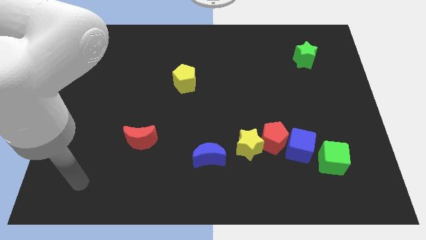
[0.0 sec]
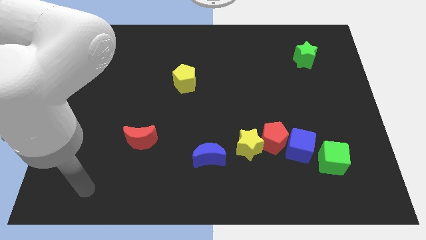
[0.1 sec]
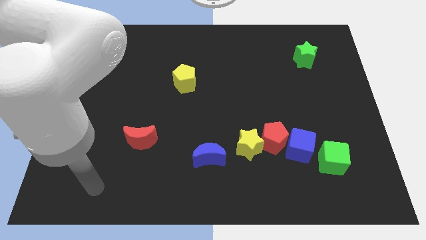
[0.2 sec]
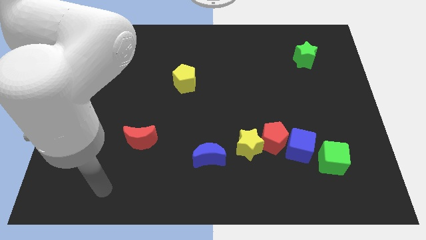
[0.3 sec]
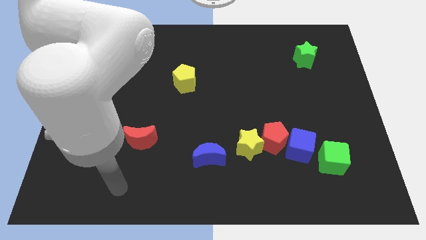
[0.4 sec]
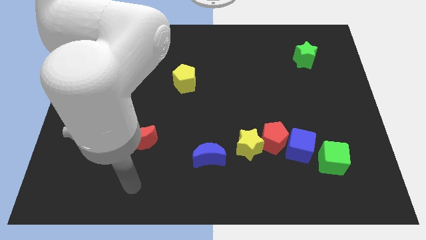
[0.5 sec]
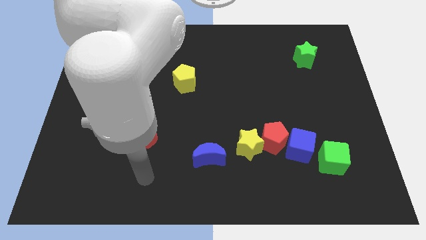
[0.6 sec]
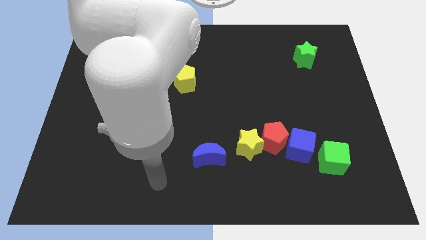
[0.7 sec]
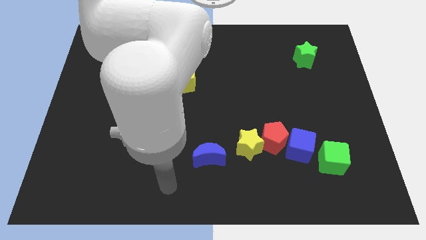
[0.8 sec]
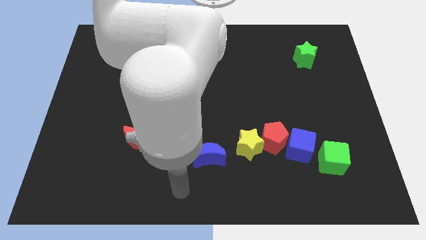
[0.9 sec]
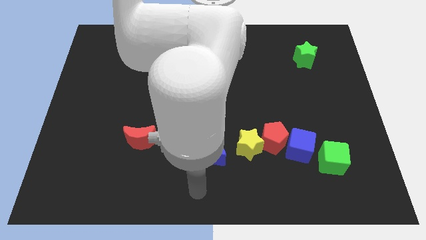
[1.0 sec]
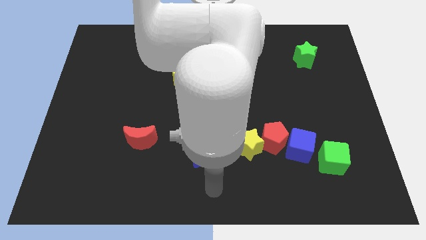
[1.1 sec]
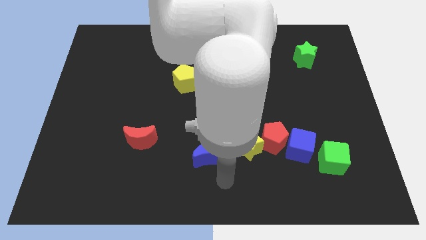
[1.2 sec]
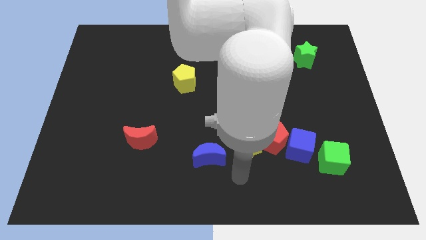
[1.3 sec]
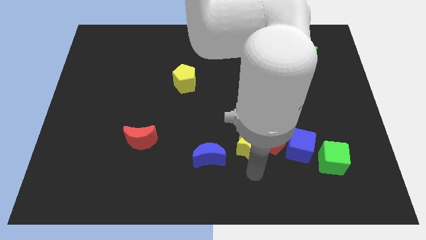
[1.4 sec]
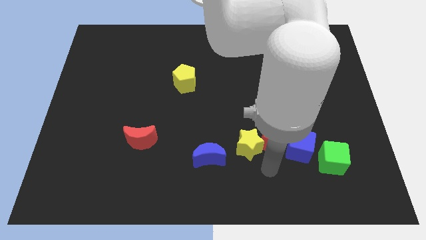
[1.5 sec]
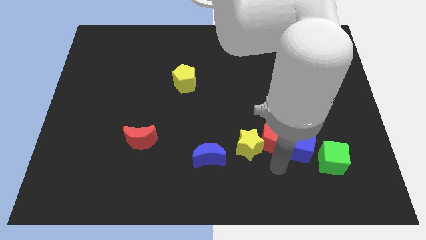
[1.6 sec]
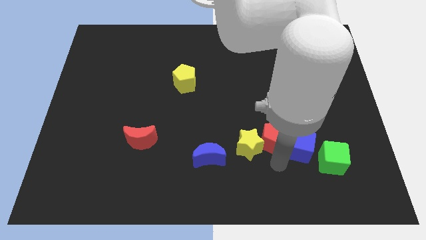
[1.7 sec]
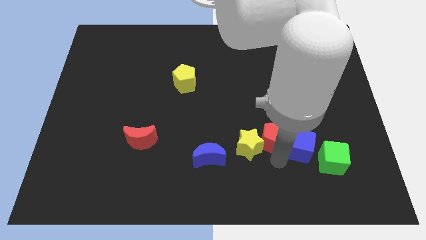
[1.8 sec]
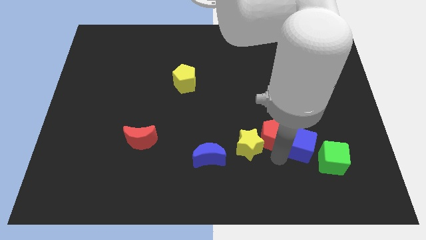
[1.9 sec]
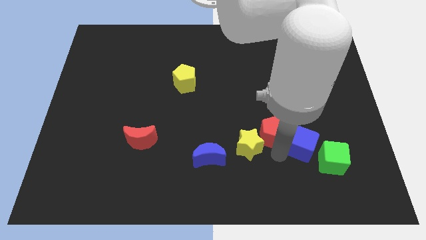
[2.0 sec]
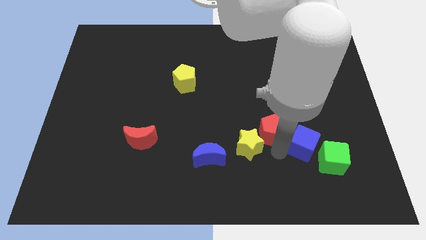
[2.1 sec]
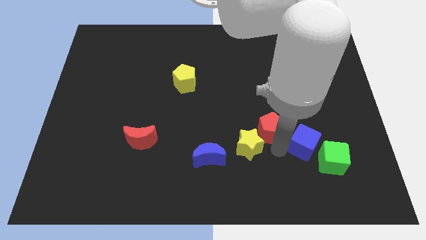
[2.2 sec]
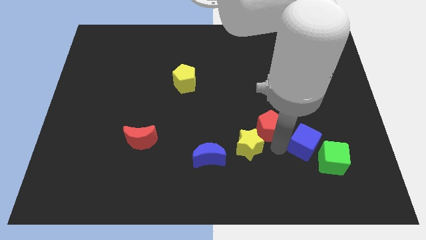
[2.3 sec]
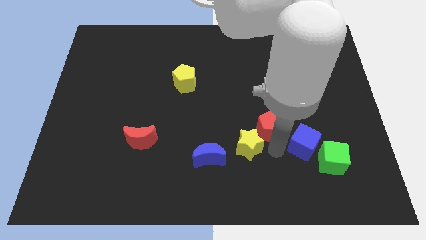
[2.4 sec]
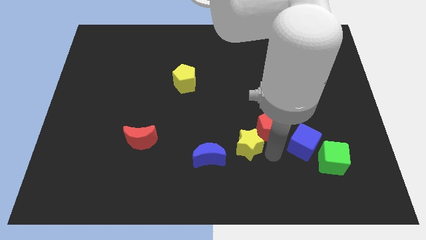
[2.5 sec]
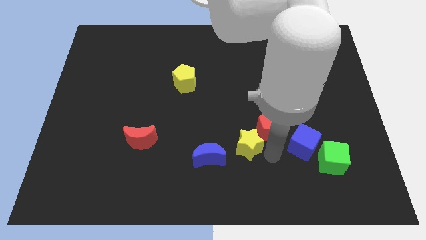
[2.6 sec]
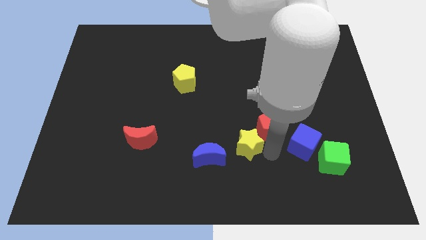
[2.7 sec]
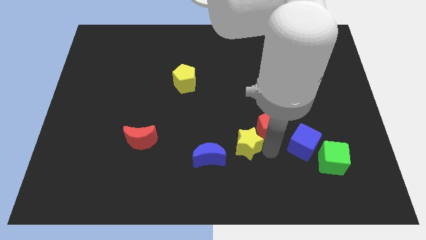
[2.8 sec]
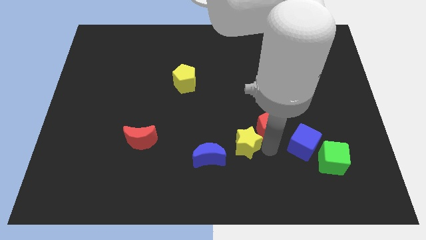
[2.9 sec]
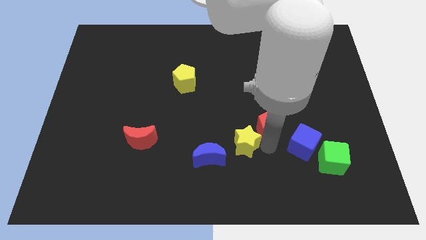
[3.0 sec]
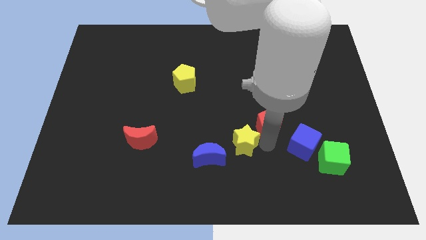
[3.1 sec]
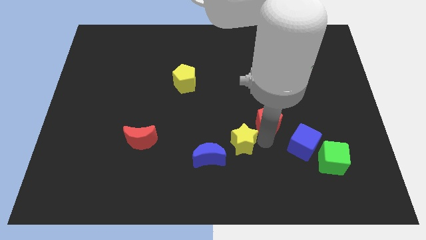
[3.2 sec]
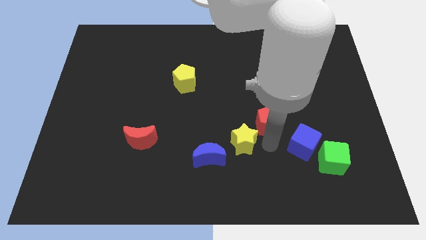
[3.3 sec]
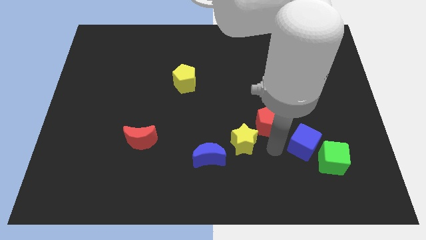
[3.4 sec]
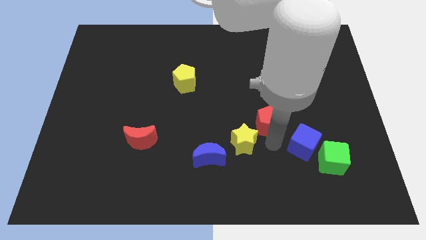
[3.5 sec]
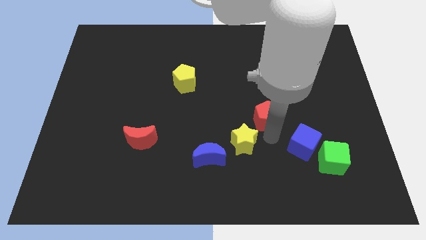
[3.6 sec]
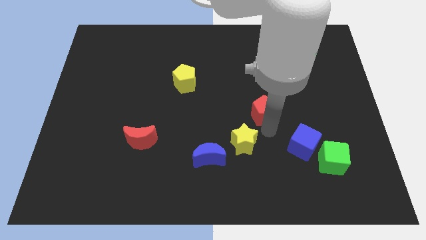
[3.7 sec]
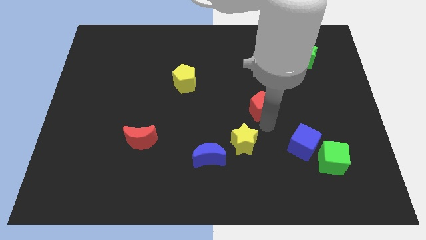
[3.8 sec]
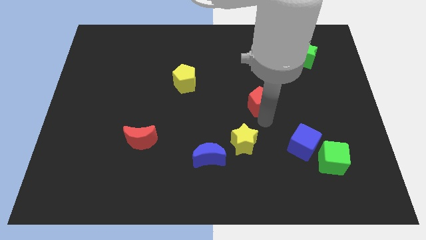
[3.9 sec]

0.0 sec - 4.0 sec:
pull the red pentagon apart from the yellow star and blue cube

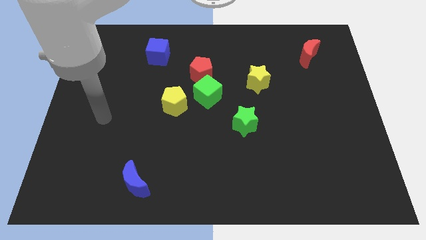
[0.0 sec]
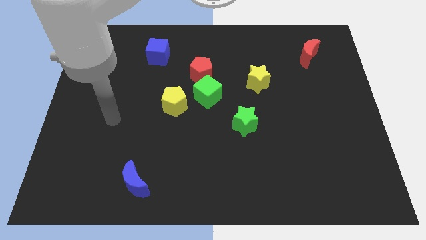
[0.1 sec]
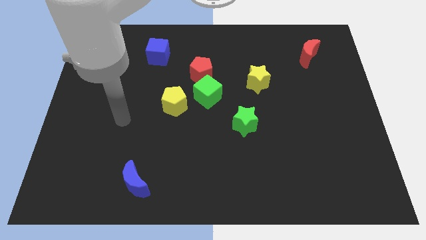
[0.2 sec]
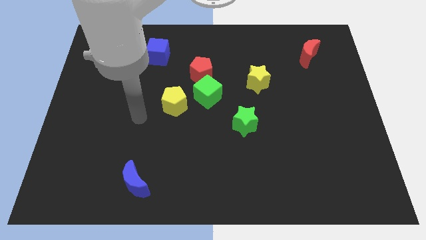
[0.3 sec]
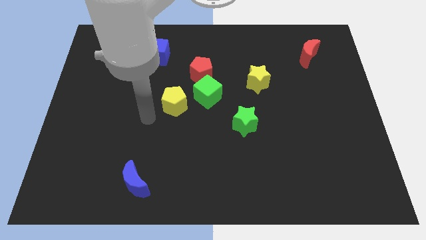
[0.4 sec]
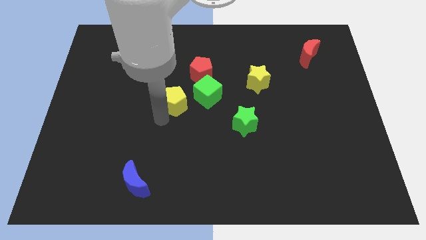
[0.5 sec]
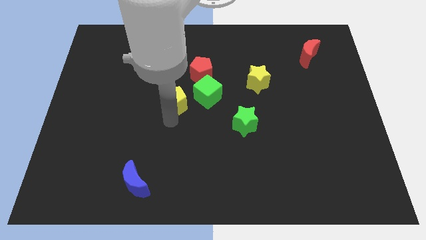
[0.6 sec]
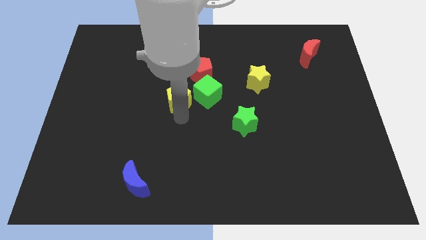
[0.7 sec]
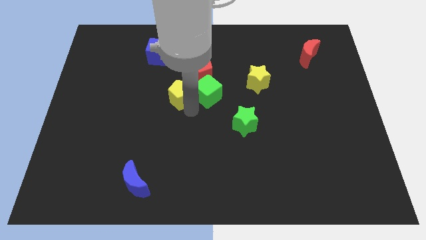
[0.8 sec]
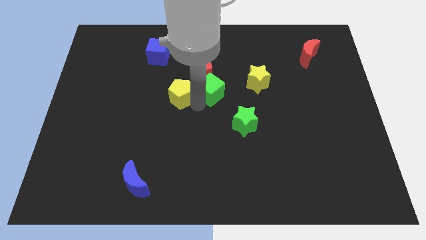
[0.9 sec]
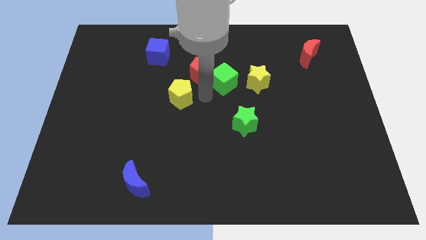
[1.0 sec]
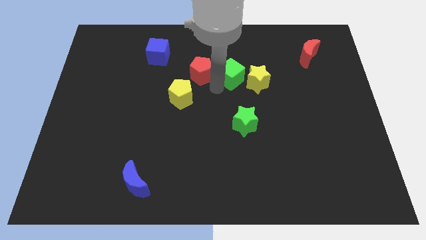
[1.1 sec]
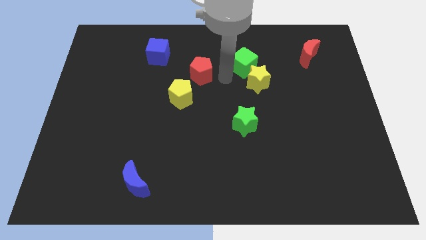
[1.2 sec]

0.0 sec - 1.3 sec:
pull the red pentagon apart from the green cube

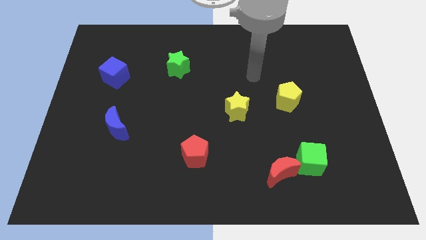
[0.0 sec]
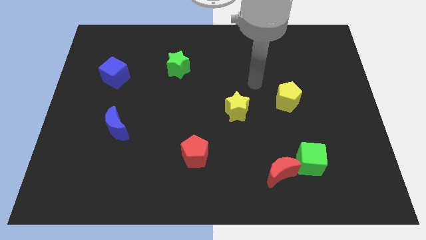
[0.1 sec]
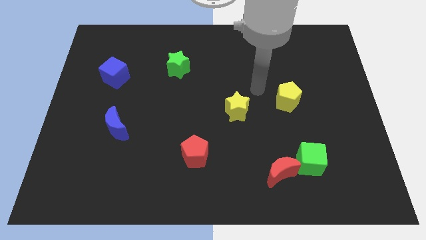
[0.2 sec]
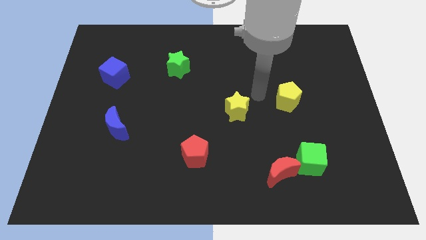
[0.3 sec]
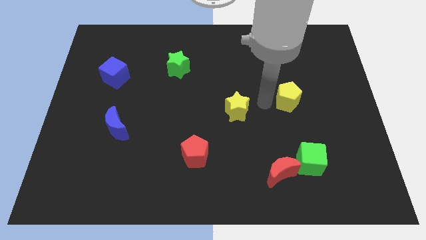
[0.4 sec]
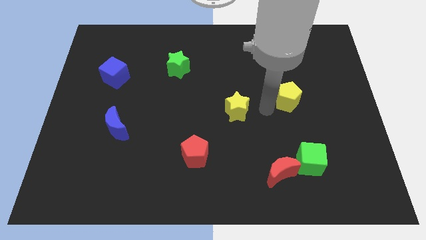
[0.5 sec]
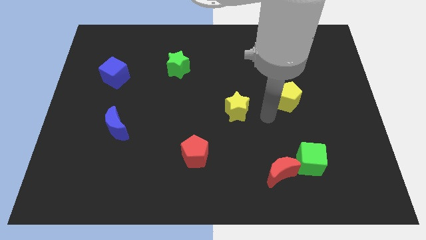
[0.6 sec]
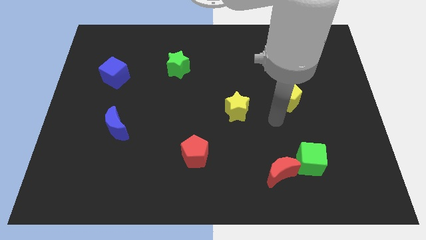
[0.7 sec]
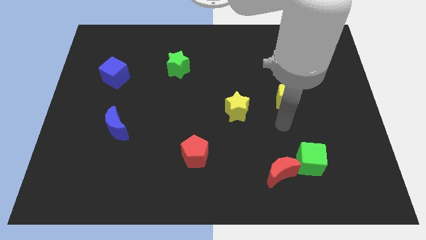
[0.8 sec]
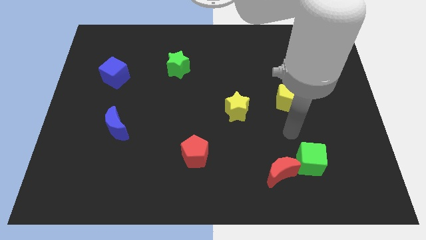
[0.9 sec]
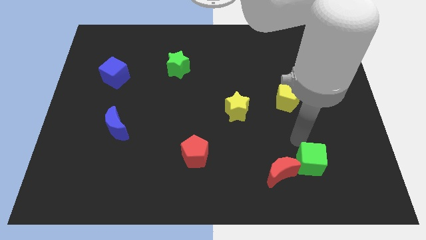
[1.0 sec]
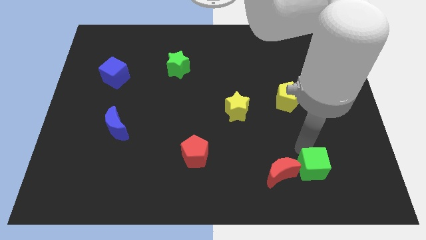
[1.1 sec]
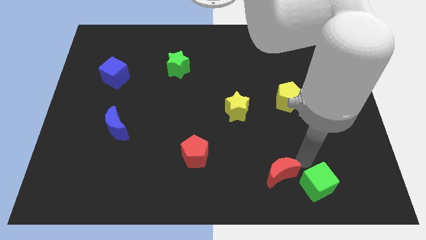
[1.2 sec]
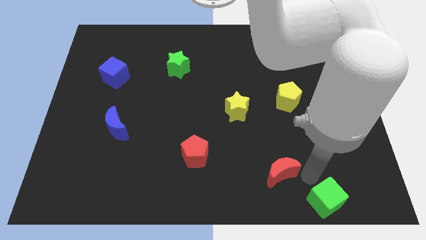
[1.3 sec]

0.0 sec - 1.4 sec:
pull the red moon apart from the green cube

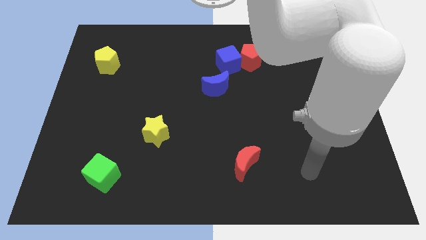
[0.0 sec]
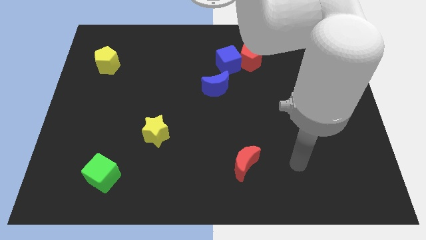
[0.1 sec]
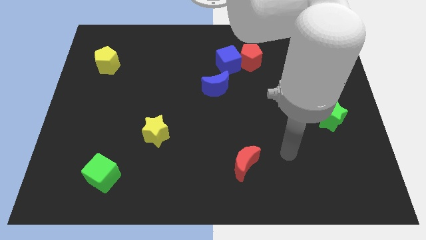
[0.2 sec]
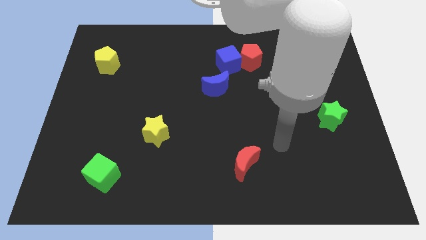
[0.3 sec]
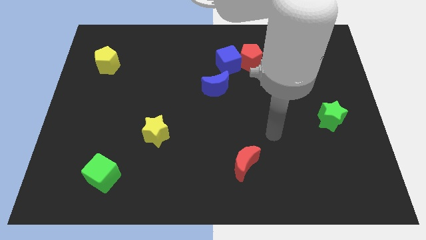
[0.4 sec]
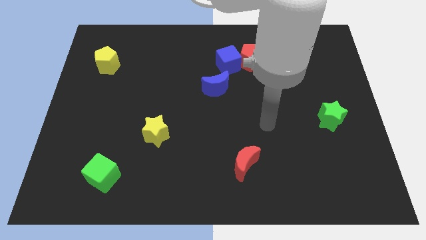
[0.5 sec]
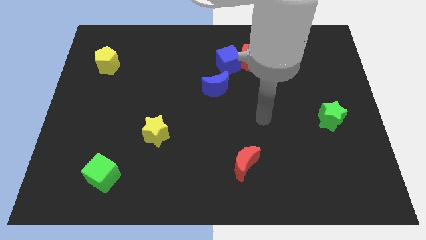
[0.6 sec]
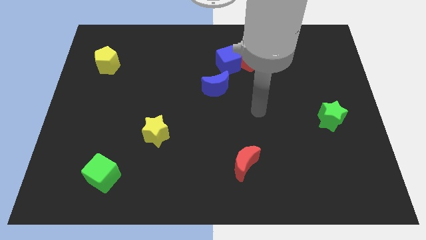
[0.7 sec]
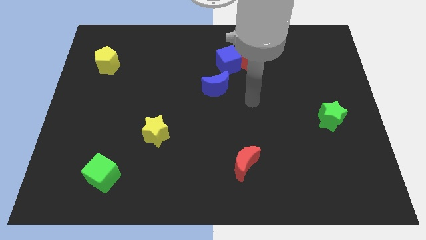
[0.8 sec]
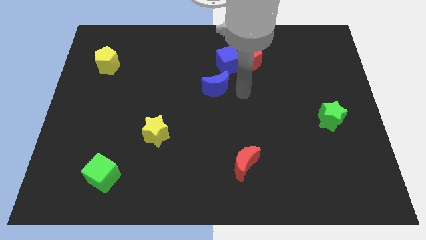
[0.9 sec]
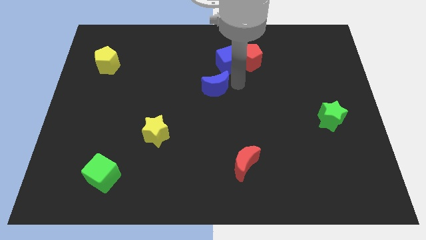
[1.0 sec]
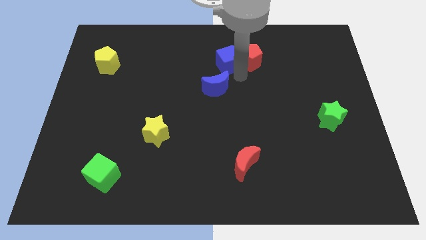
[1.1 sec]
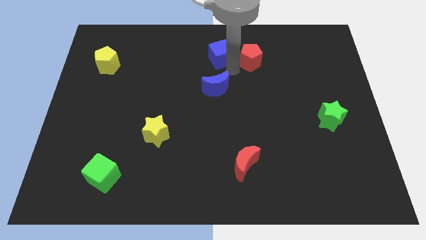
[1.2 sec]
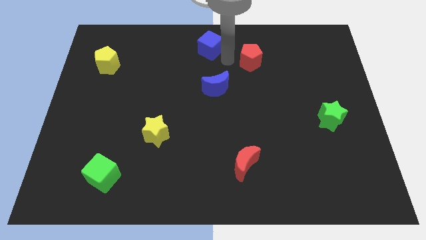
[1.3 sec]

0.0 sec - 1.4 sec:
pull the red pentagon apart from the blue cube

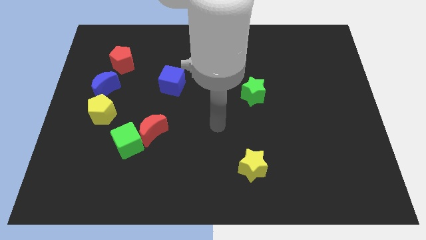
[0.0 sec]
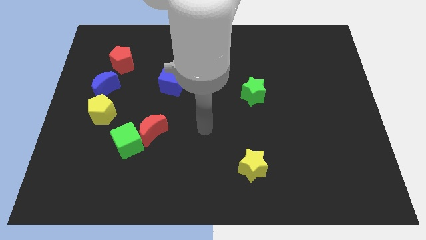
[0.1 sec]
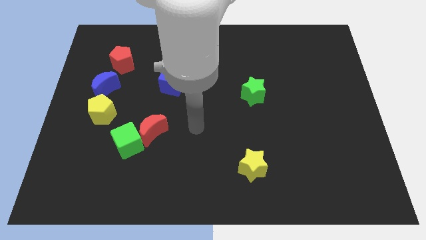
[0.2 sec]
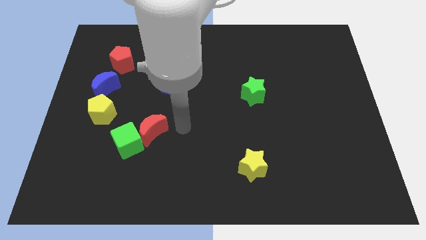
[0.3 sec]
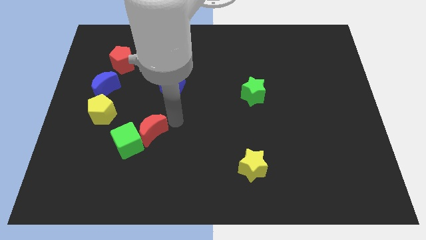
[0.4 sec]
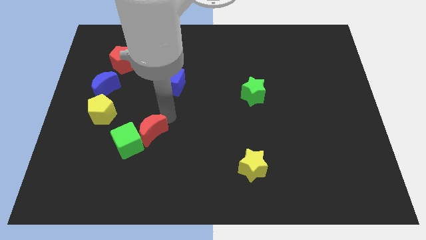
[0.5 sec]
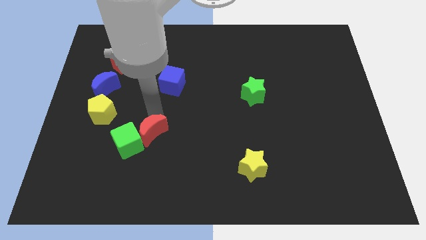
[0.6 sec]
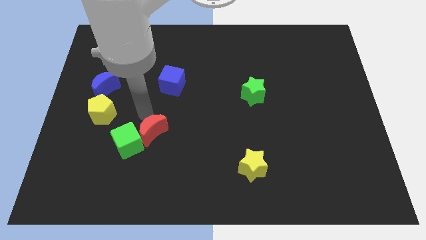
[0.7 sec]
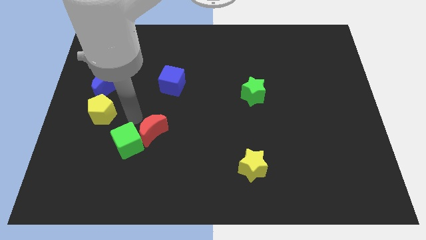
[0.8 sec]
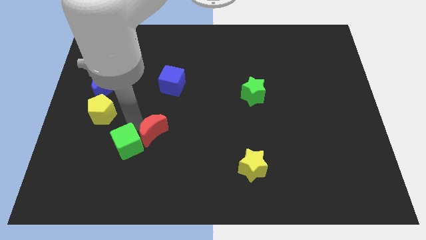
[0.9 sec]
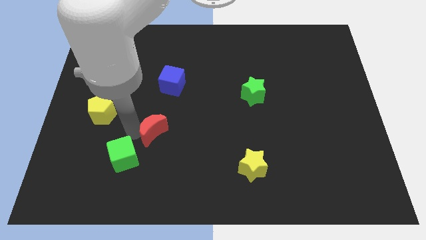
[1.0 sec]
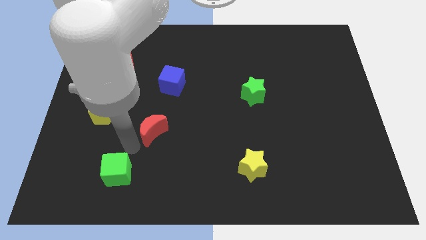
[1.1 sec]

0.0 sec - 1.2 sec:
move the red moon away from the green cube

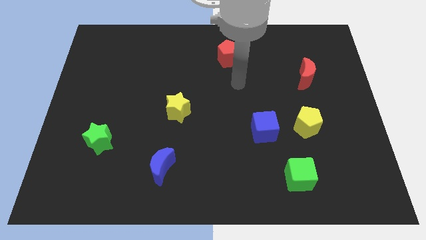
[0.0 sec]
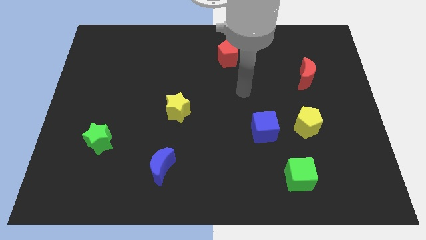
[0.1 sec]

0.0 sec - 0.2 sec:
move the blue cube away from the yellow pentagon
